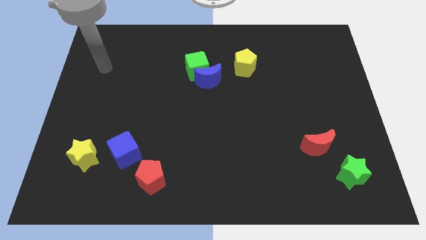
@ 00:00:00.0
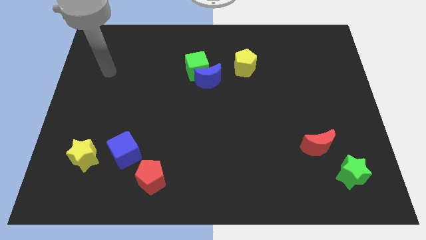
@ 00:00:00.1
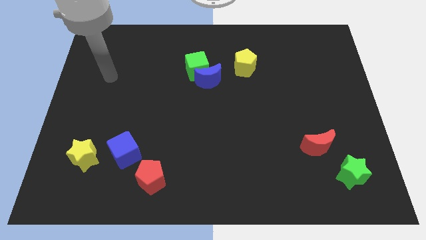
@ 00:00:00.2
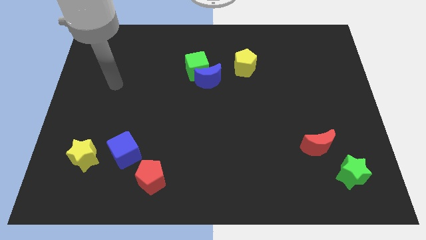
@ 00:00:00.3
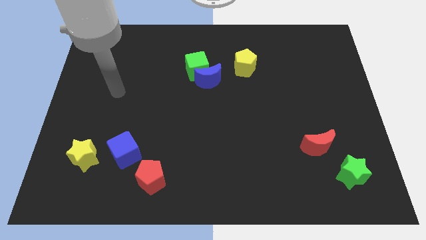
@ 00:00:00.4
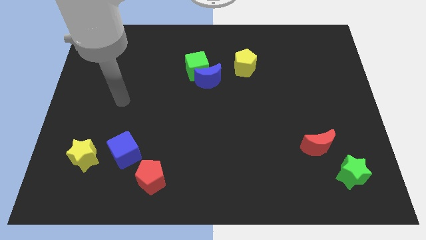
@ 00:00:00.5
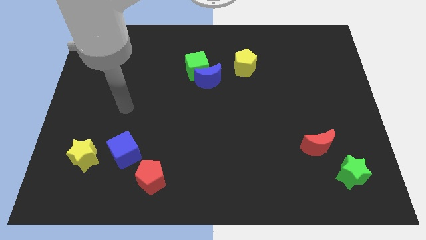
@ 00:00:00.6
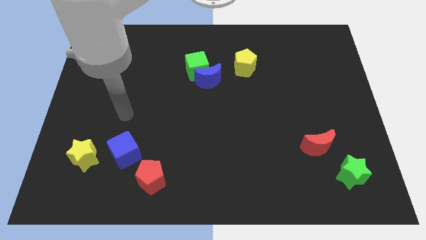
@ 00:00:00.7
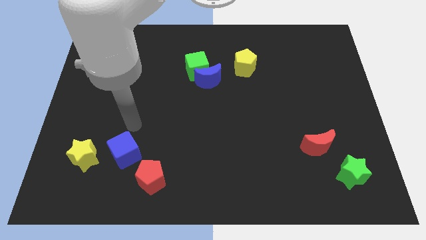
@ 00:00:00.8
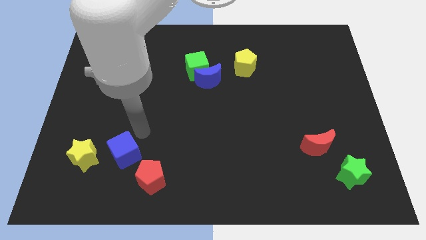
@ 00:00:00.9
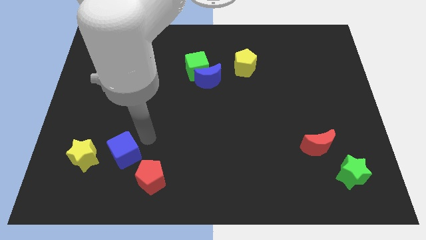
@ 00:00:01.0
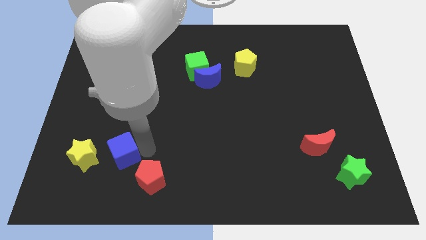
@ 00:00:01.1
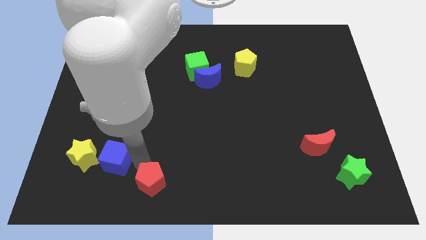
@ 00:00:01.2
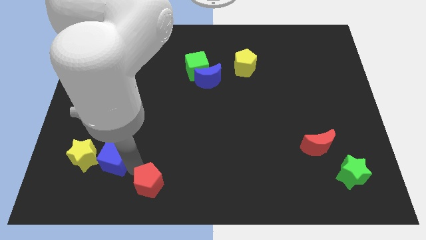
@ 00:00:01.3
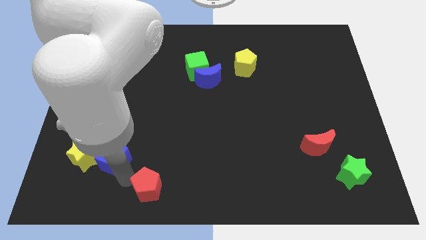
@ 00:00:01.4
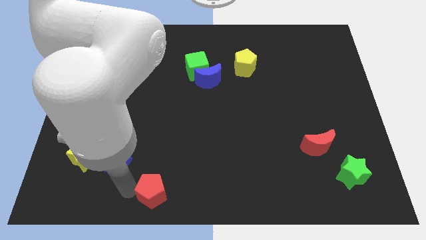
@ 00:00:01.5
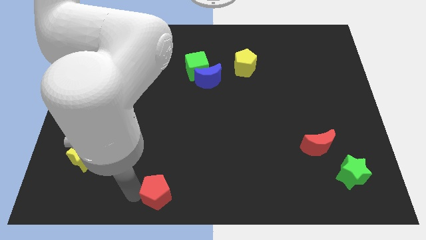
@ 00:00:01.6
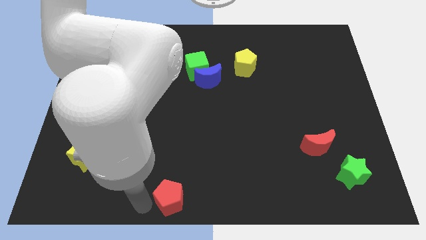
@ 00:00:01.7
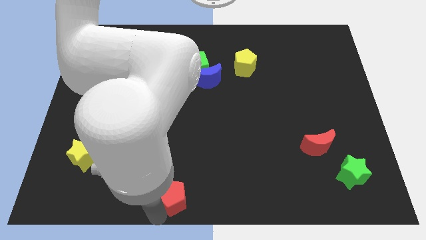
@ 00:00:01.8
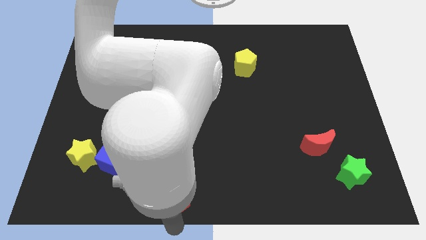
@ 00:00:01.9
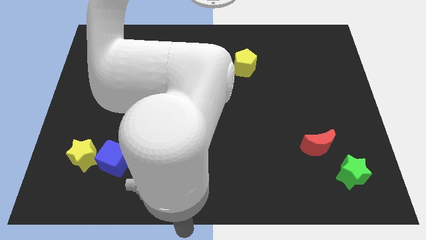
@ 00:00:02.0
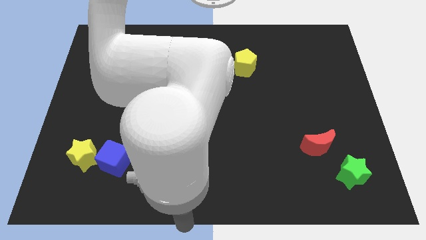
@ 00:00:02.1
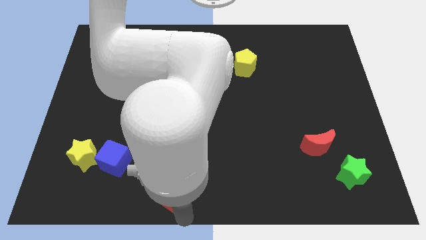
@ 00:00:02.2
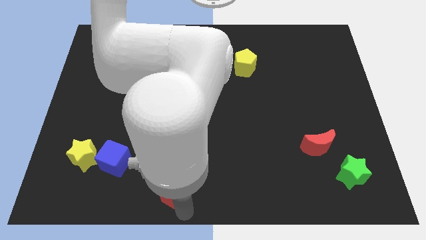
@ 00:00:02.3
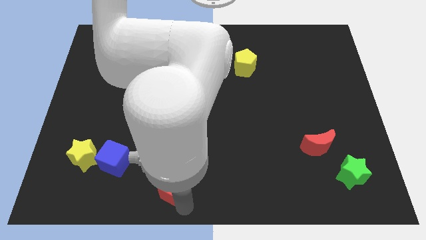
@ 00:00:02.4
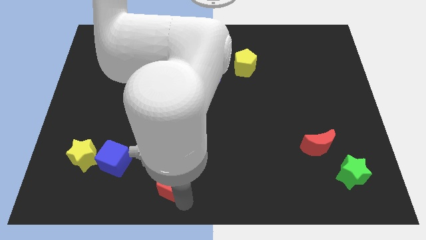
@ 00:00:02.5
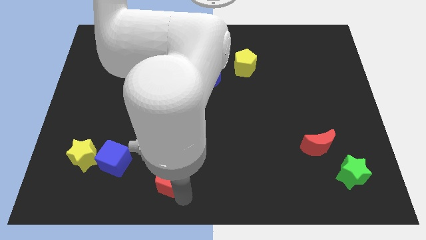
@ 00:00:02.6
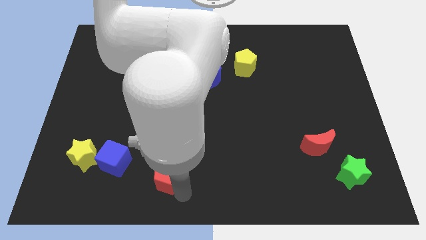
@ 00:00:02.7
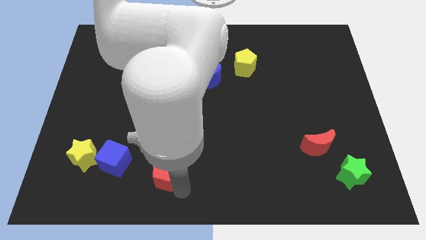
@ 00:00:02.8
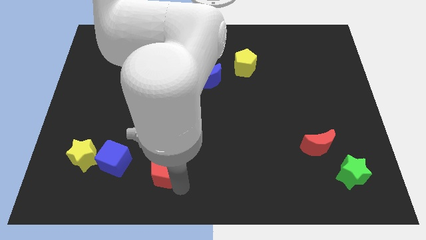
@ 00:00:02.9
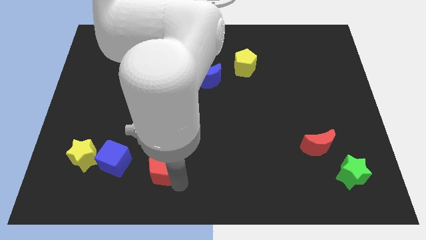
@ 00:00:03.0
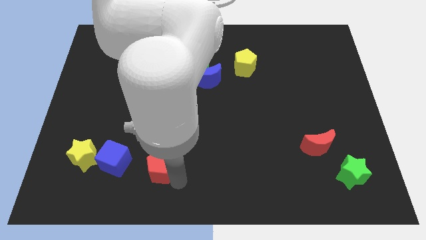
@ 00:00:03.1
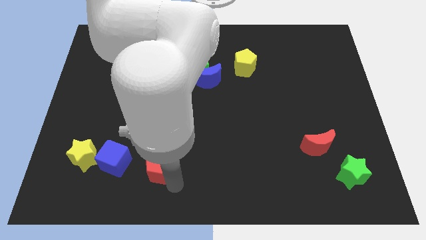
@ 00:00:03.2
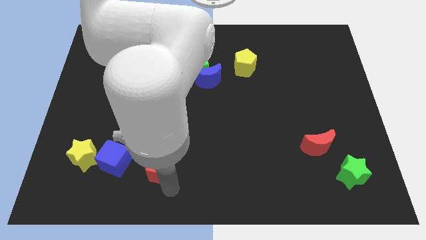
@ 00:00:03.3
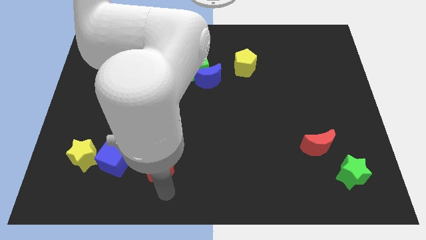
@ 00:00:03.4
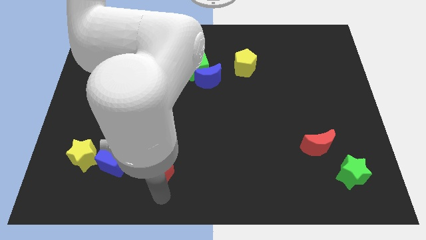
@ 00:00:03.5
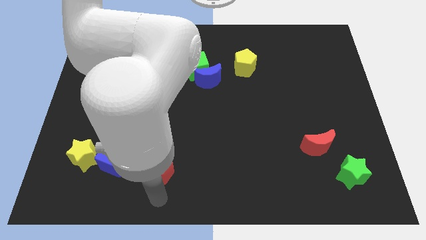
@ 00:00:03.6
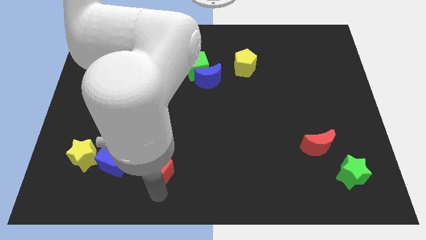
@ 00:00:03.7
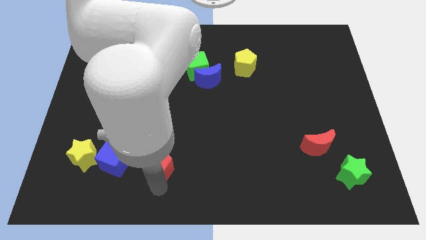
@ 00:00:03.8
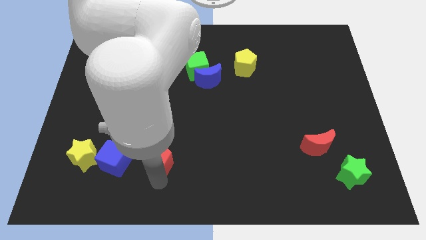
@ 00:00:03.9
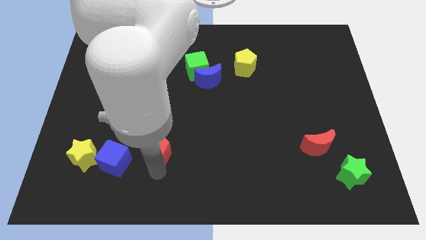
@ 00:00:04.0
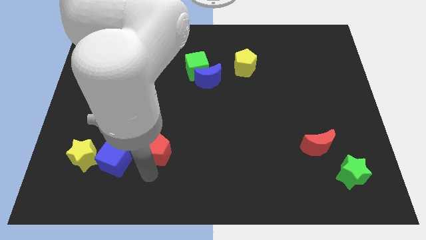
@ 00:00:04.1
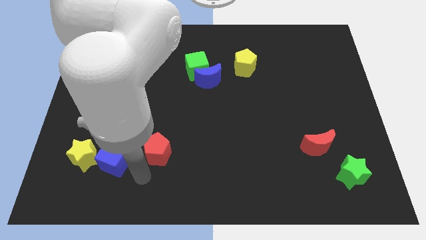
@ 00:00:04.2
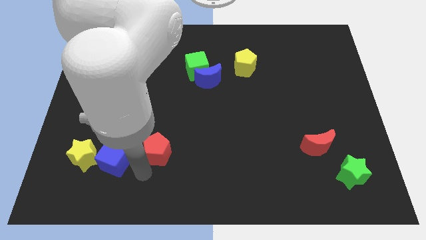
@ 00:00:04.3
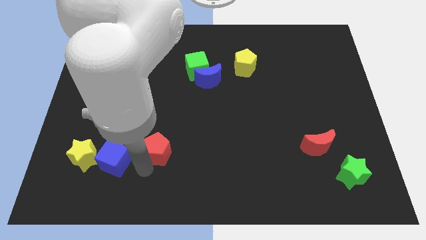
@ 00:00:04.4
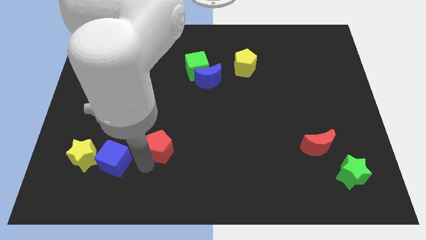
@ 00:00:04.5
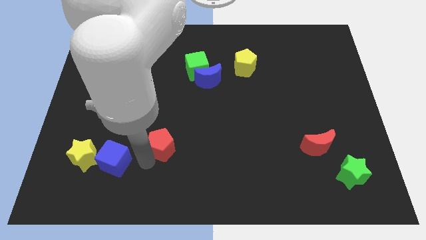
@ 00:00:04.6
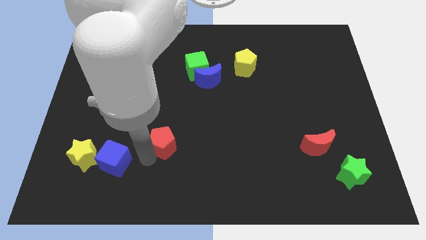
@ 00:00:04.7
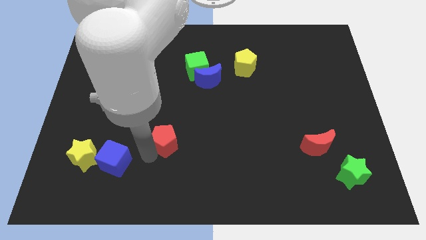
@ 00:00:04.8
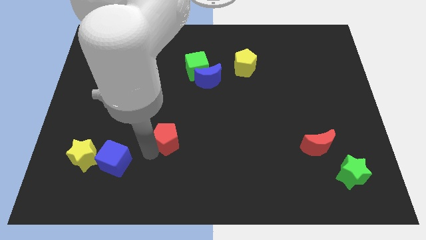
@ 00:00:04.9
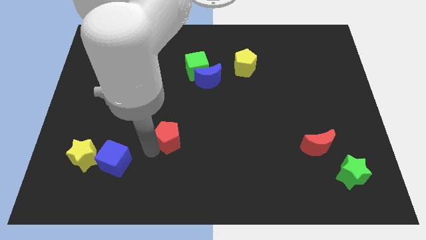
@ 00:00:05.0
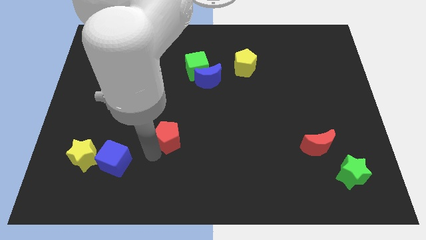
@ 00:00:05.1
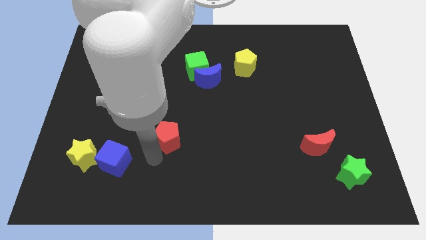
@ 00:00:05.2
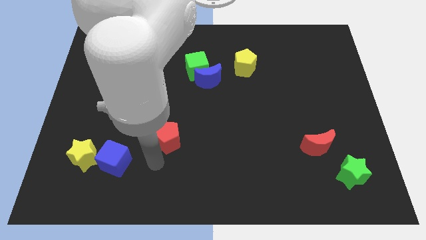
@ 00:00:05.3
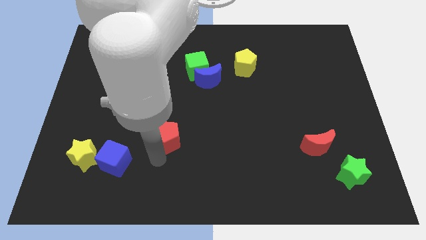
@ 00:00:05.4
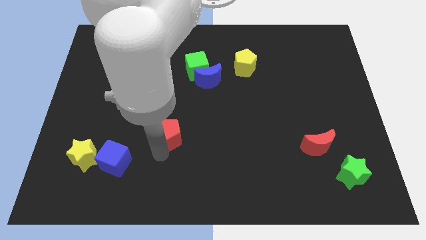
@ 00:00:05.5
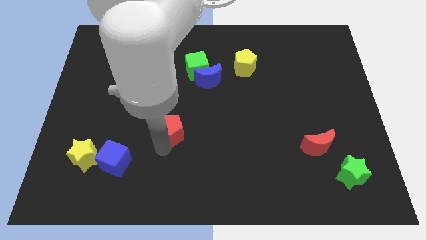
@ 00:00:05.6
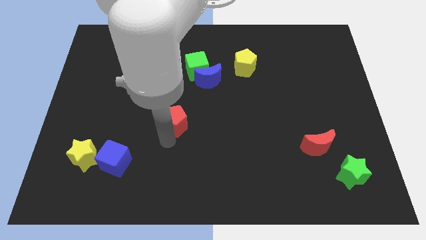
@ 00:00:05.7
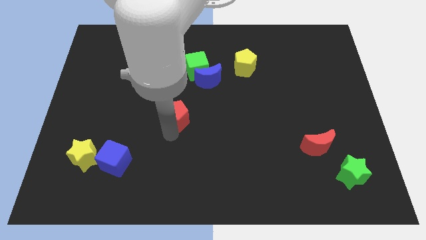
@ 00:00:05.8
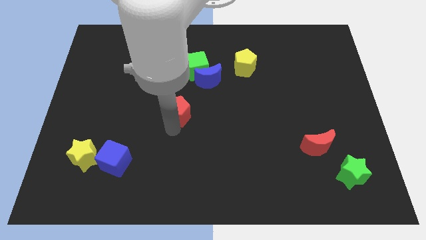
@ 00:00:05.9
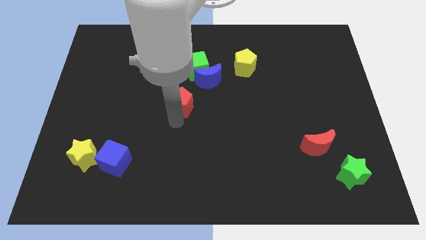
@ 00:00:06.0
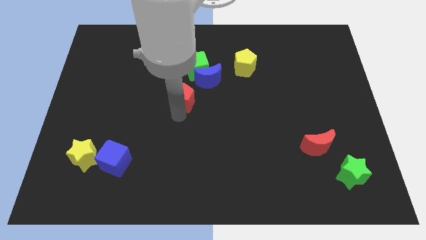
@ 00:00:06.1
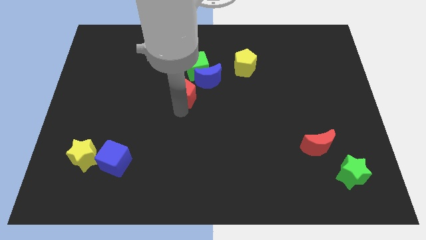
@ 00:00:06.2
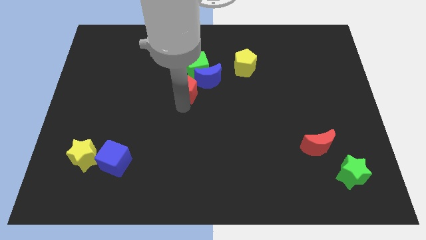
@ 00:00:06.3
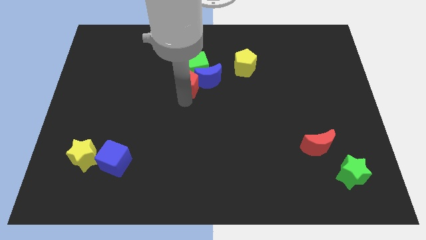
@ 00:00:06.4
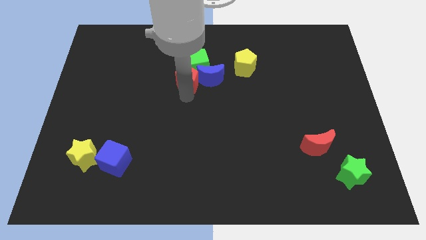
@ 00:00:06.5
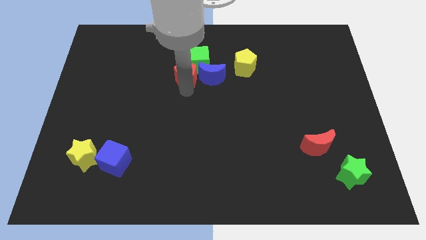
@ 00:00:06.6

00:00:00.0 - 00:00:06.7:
put the red pentagon diagonally up and to the left of the blue moon

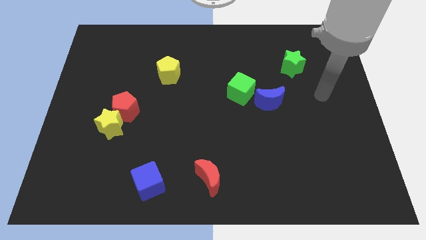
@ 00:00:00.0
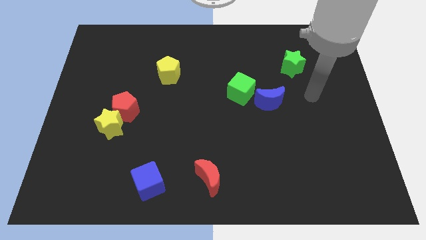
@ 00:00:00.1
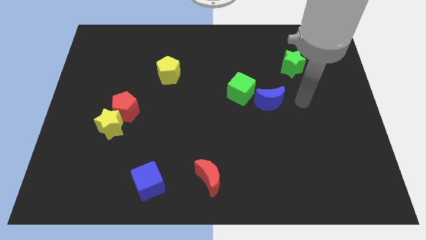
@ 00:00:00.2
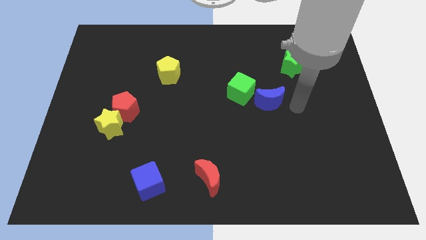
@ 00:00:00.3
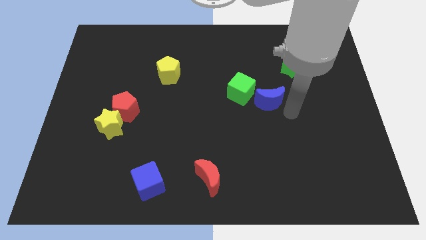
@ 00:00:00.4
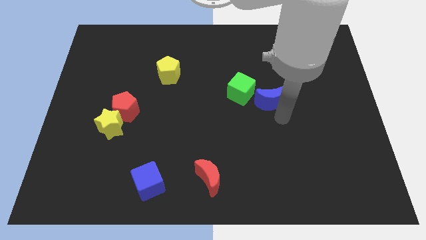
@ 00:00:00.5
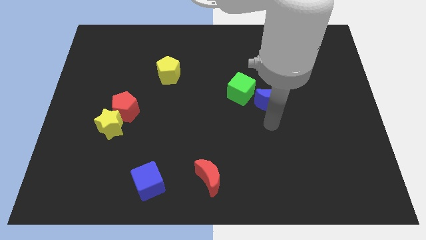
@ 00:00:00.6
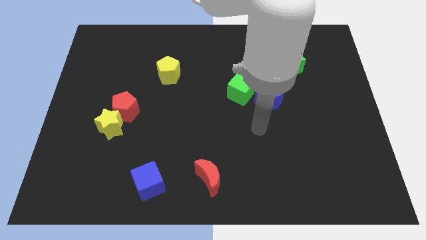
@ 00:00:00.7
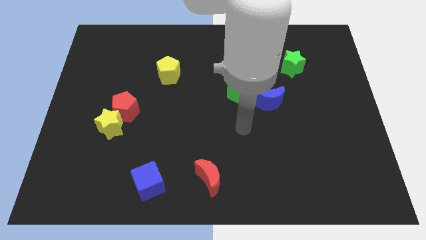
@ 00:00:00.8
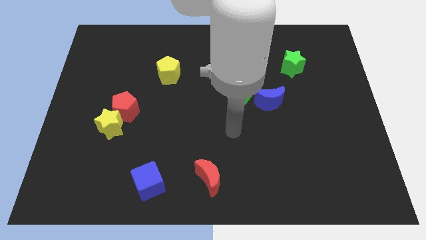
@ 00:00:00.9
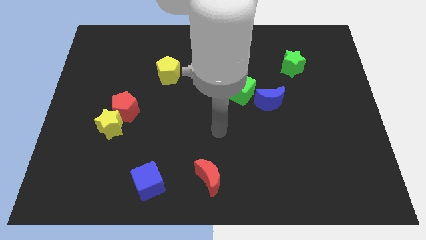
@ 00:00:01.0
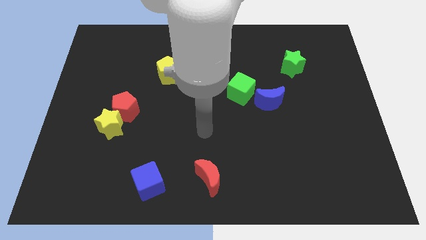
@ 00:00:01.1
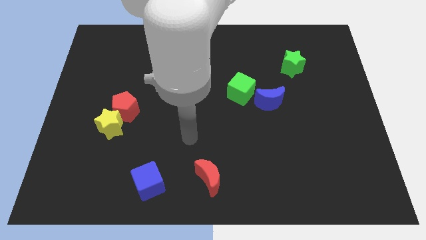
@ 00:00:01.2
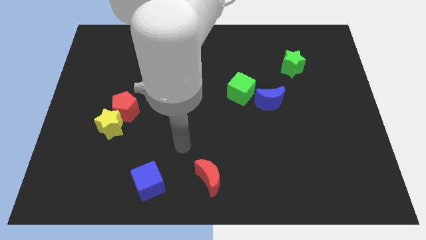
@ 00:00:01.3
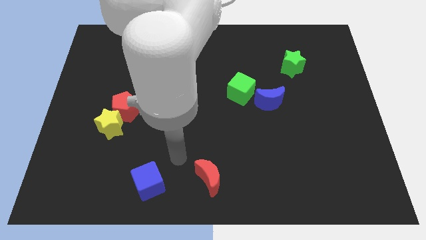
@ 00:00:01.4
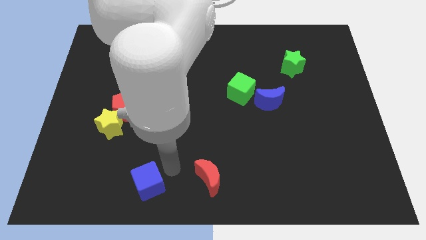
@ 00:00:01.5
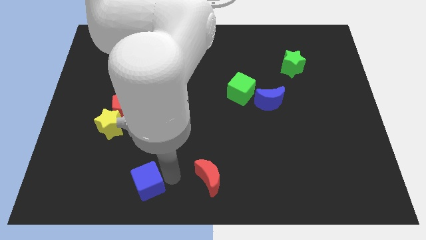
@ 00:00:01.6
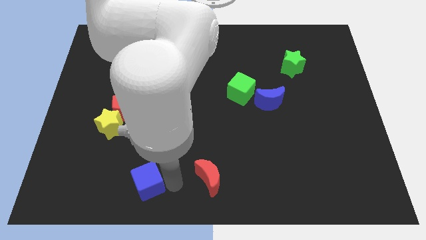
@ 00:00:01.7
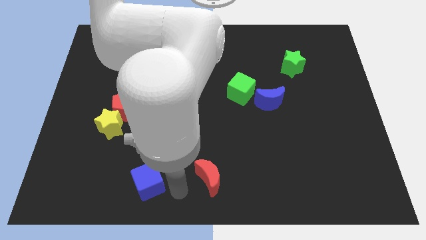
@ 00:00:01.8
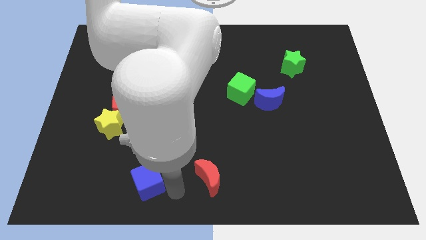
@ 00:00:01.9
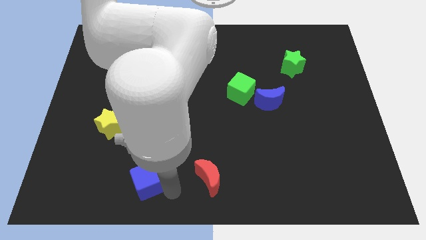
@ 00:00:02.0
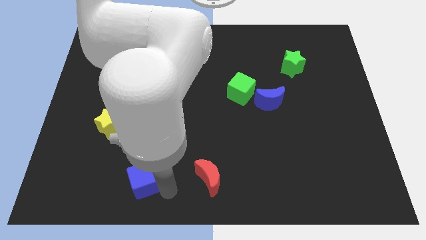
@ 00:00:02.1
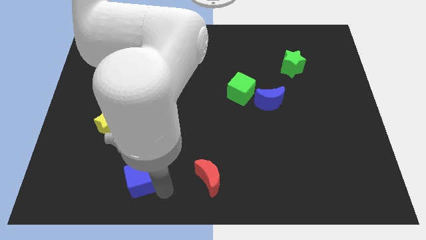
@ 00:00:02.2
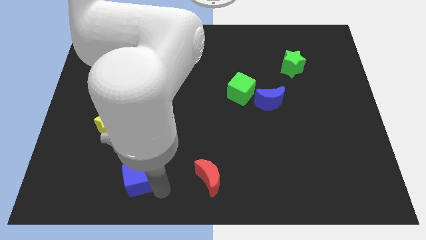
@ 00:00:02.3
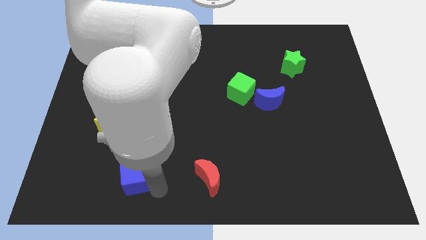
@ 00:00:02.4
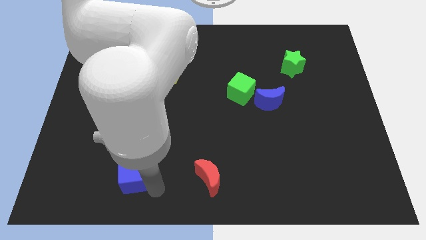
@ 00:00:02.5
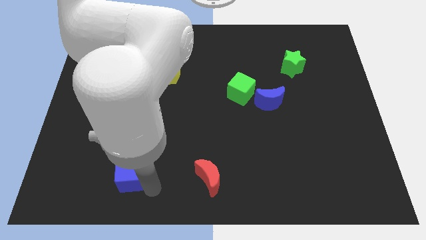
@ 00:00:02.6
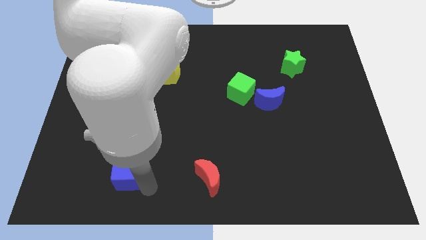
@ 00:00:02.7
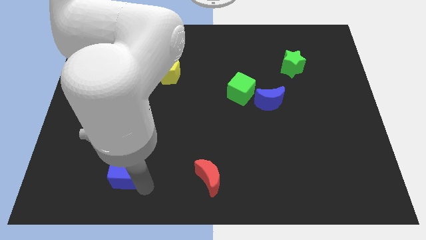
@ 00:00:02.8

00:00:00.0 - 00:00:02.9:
put the blue cube below the yellow star
